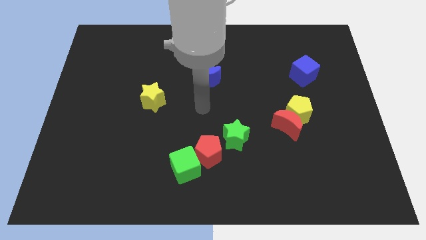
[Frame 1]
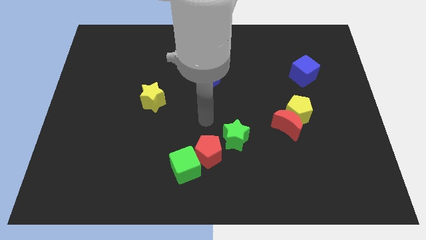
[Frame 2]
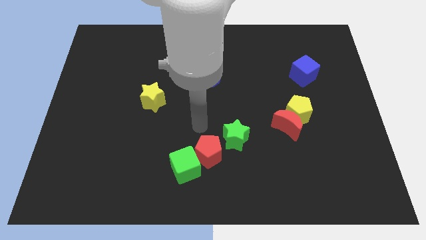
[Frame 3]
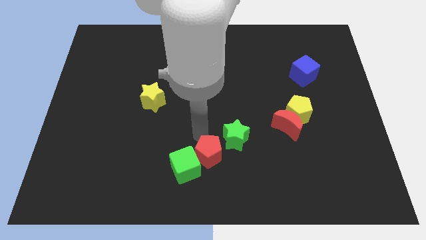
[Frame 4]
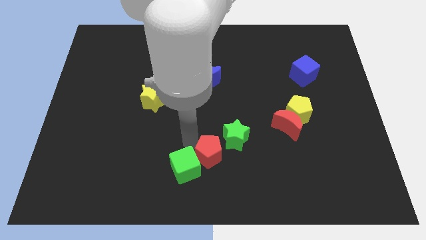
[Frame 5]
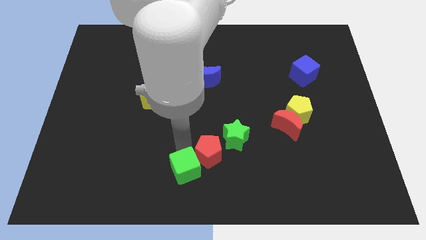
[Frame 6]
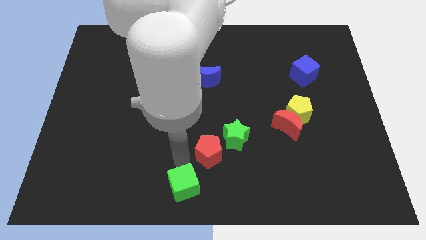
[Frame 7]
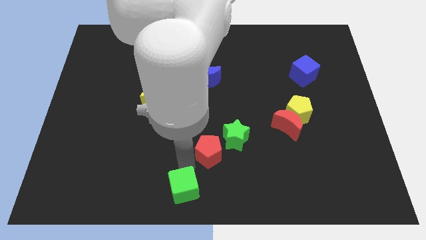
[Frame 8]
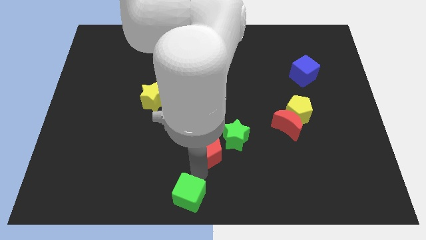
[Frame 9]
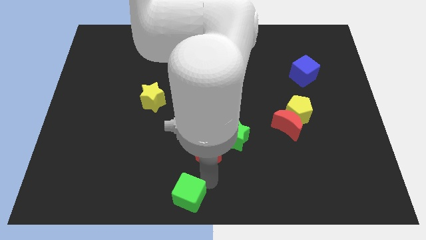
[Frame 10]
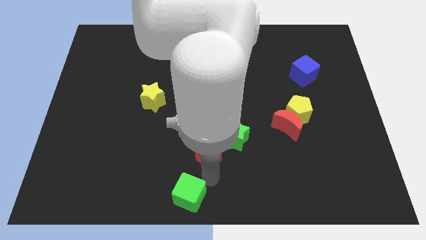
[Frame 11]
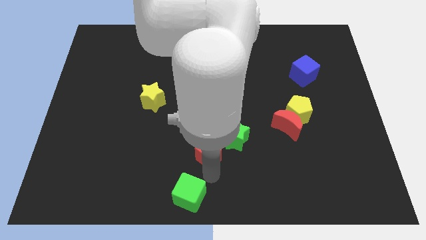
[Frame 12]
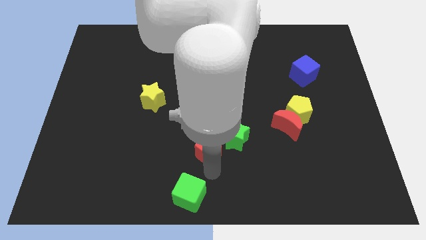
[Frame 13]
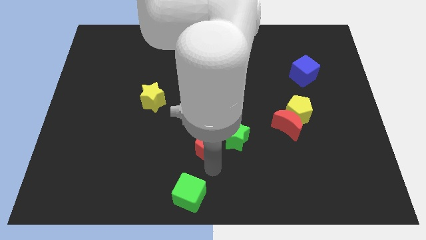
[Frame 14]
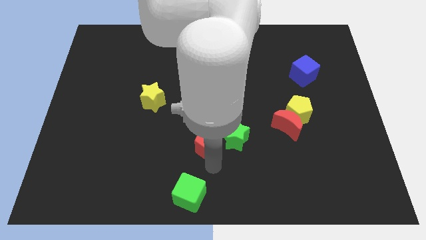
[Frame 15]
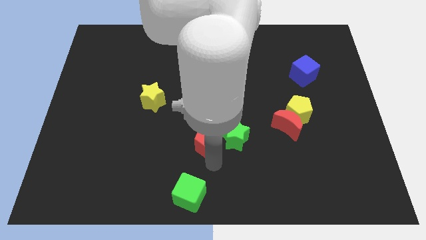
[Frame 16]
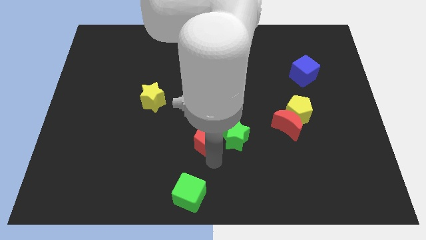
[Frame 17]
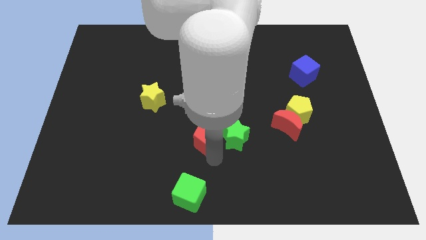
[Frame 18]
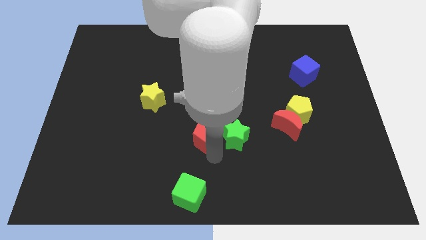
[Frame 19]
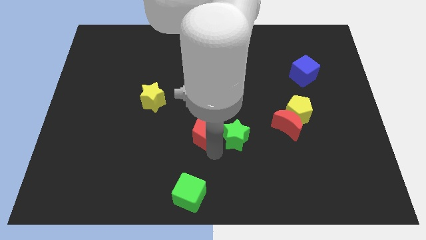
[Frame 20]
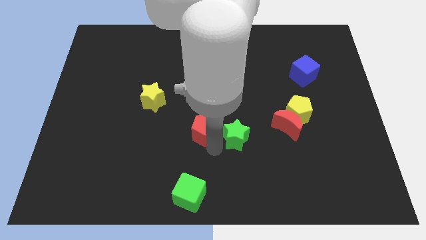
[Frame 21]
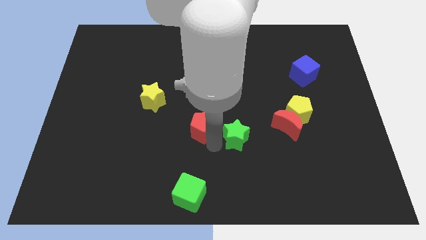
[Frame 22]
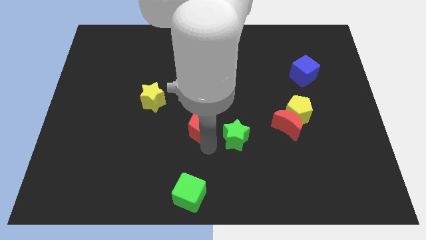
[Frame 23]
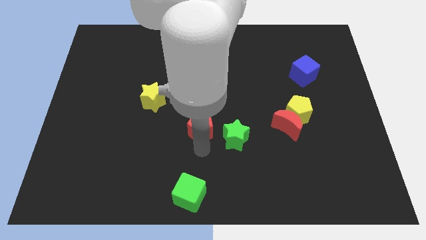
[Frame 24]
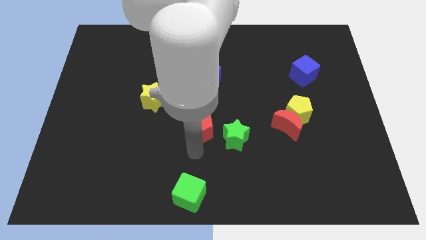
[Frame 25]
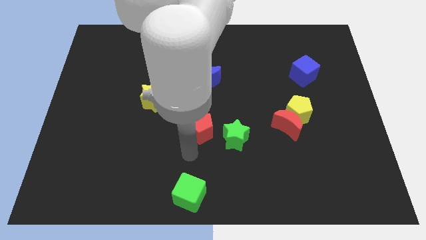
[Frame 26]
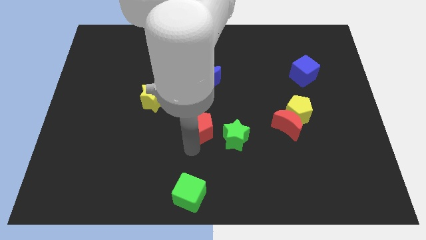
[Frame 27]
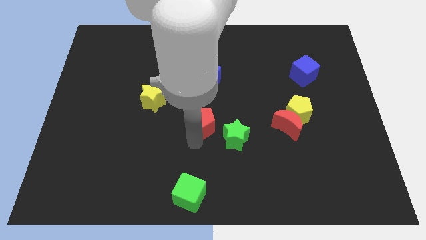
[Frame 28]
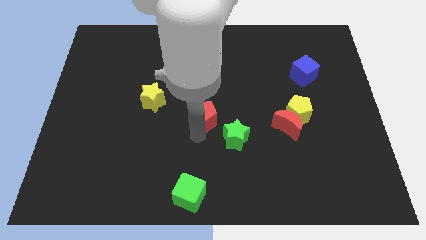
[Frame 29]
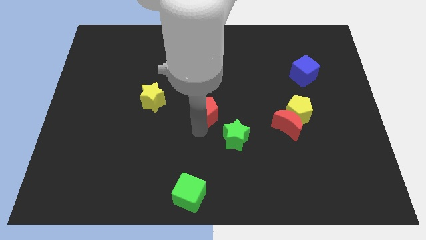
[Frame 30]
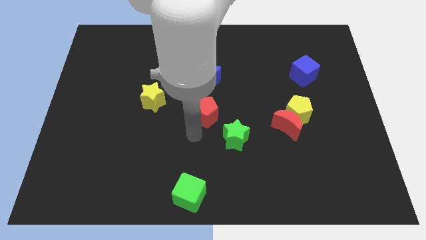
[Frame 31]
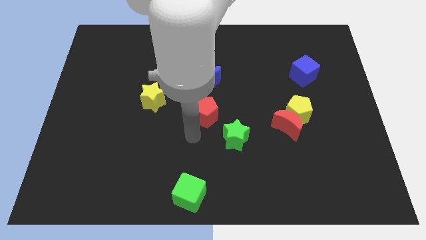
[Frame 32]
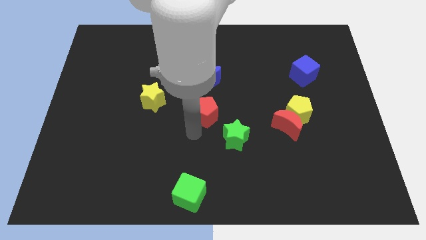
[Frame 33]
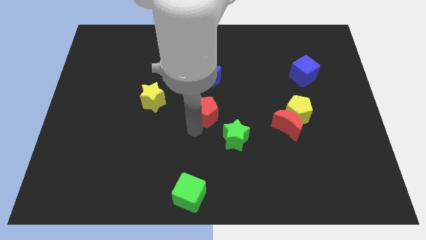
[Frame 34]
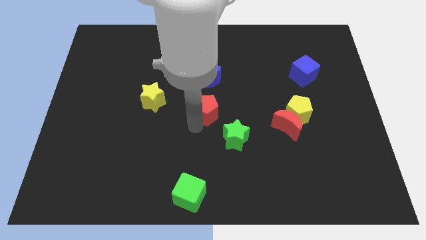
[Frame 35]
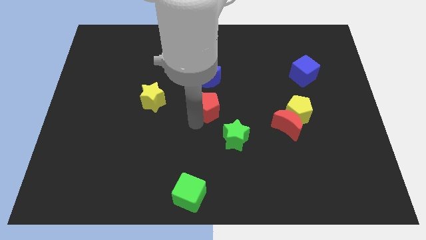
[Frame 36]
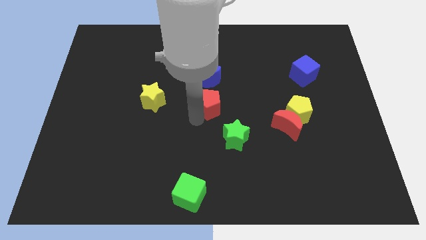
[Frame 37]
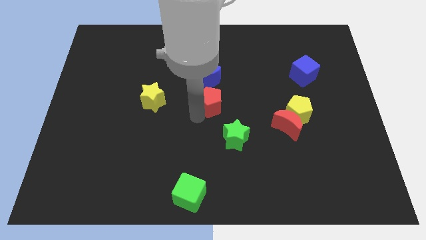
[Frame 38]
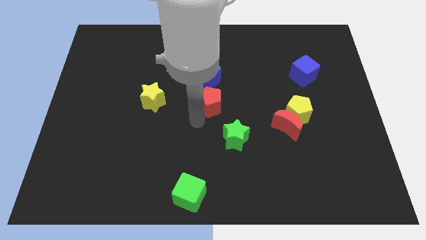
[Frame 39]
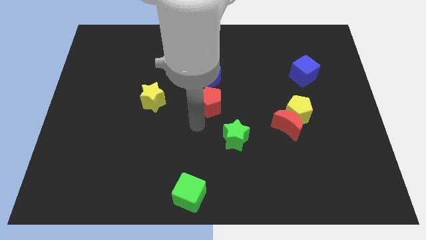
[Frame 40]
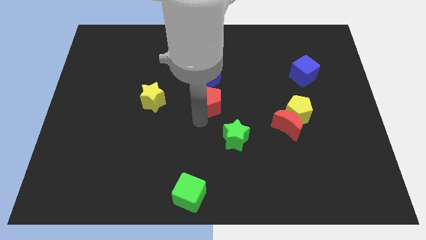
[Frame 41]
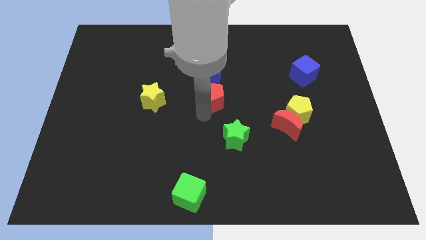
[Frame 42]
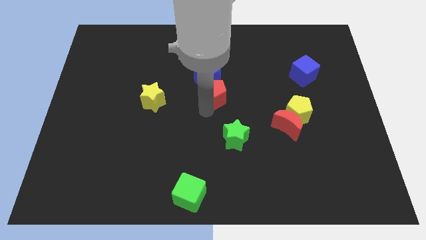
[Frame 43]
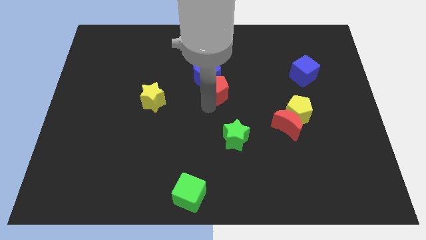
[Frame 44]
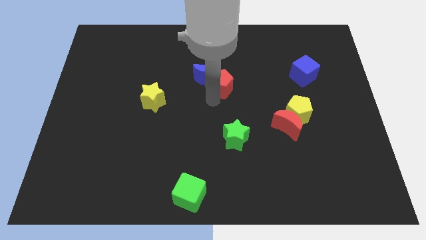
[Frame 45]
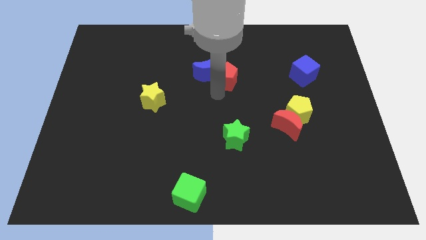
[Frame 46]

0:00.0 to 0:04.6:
slide the red pentagon diagonally up and to the right of the blue moon

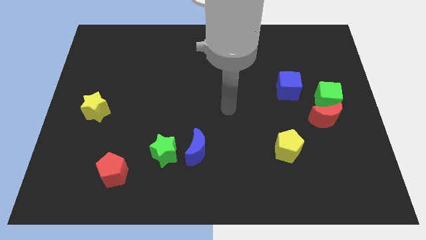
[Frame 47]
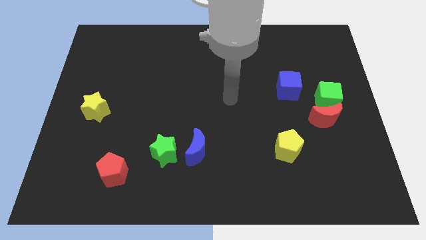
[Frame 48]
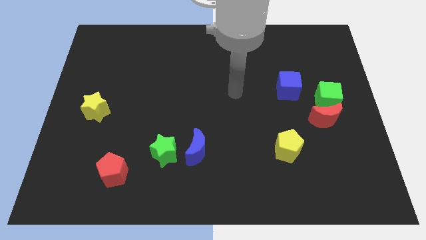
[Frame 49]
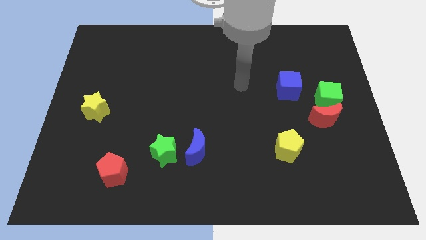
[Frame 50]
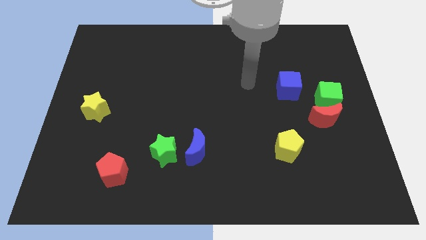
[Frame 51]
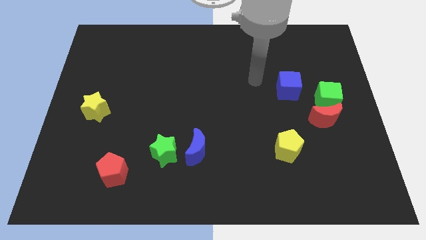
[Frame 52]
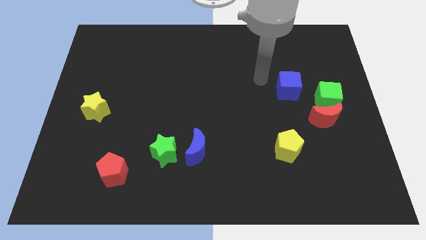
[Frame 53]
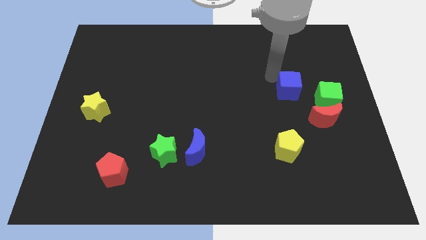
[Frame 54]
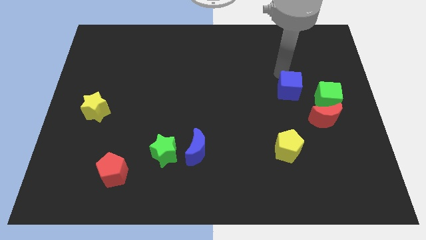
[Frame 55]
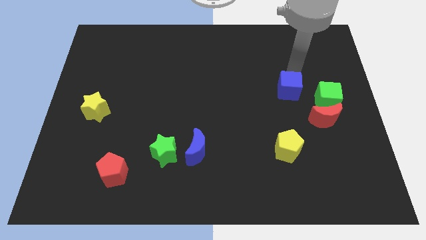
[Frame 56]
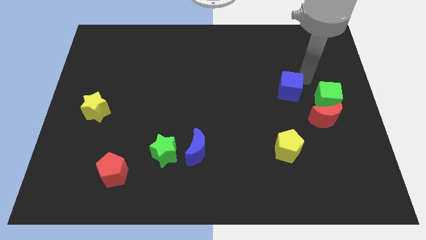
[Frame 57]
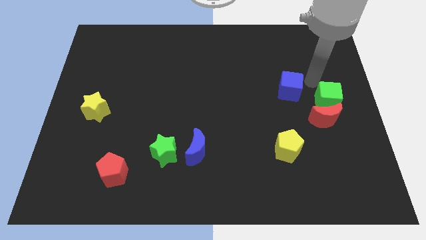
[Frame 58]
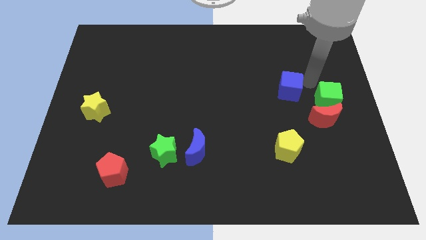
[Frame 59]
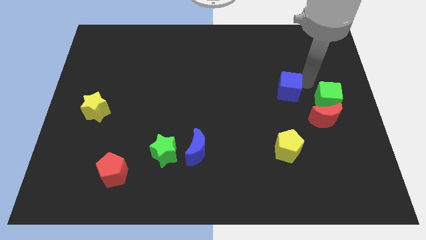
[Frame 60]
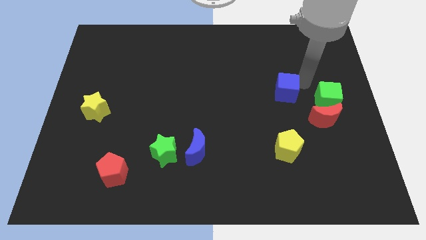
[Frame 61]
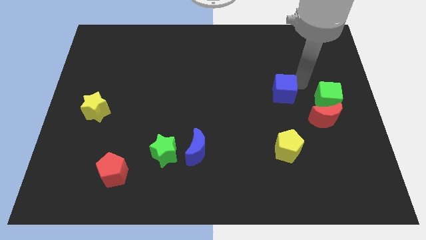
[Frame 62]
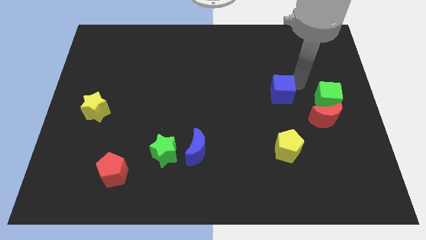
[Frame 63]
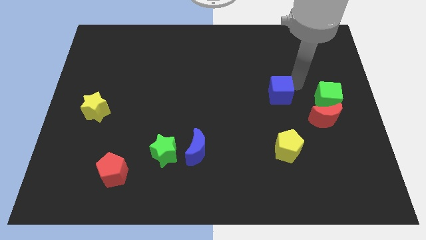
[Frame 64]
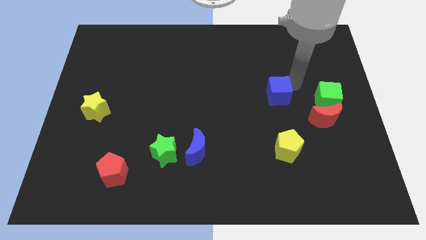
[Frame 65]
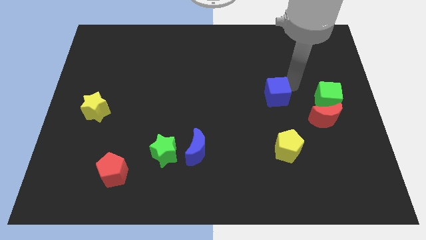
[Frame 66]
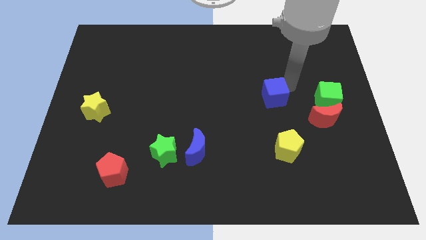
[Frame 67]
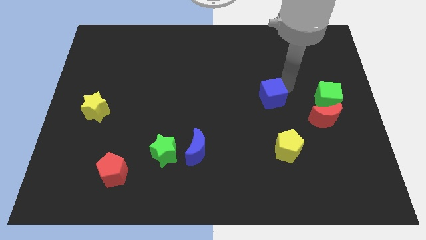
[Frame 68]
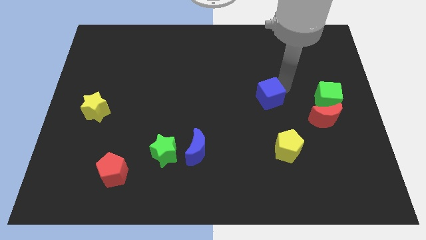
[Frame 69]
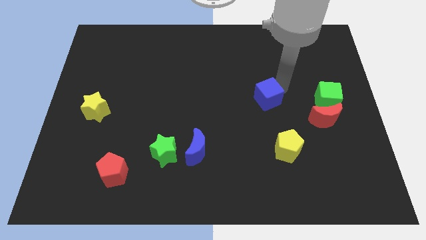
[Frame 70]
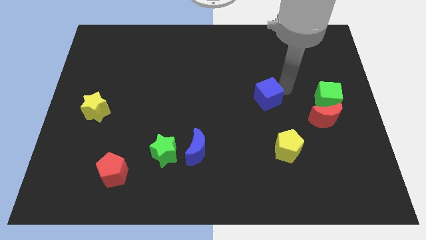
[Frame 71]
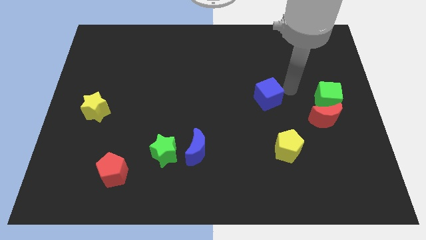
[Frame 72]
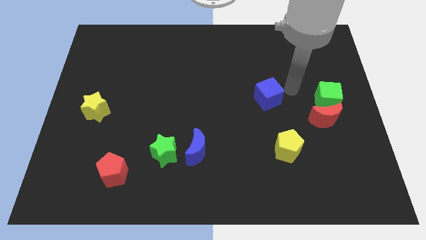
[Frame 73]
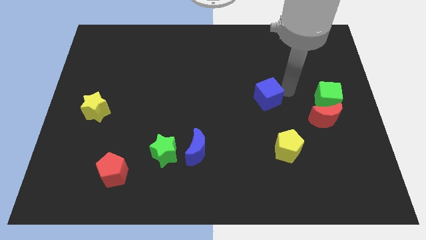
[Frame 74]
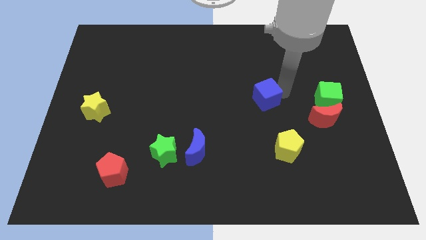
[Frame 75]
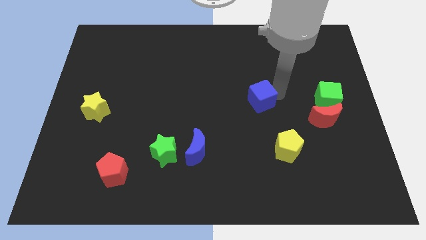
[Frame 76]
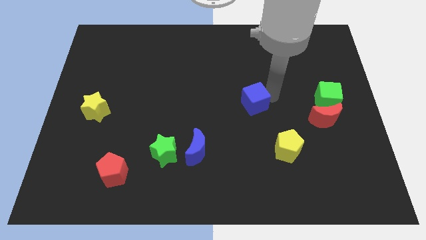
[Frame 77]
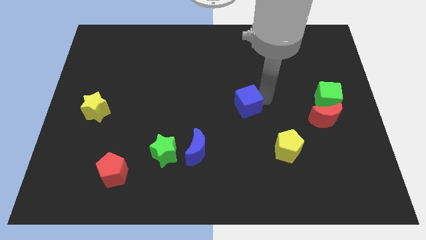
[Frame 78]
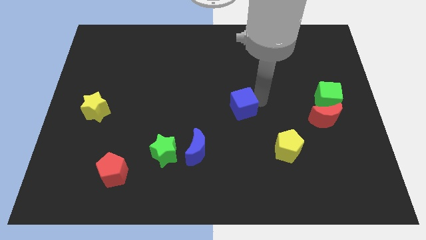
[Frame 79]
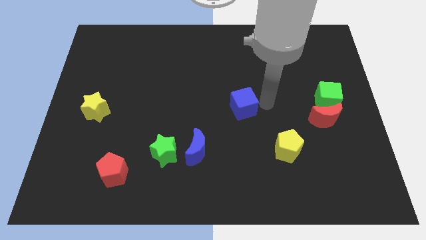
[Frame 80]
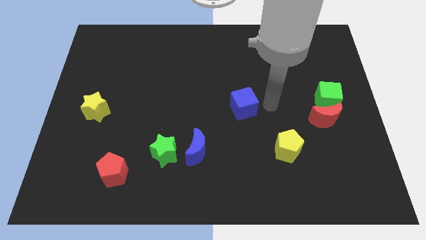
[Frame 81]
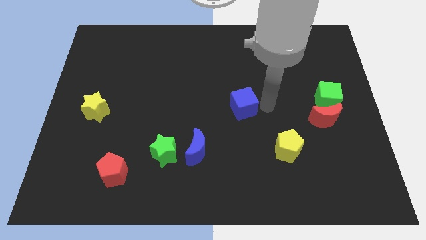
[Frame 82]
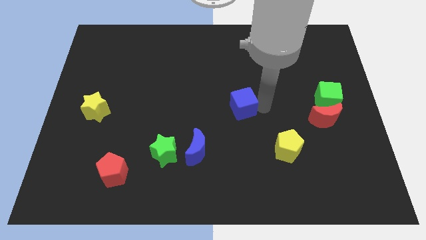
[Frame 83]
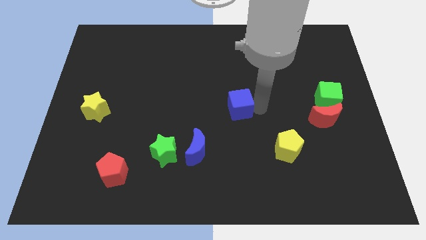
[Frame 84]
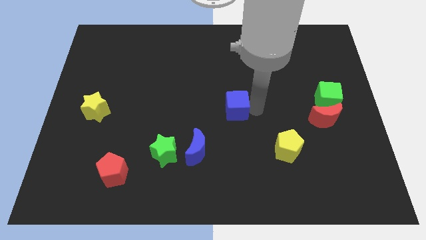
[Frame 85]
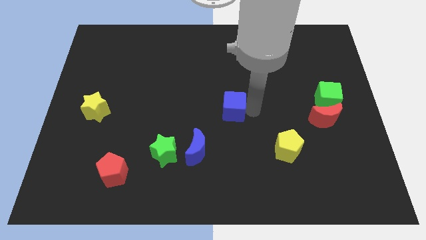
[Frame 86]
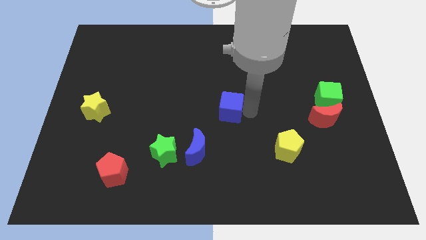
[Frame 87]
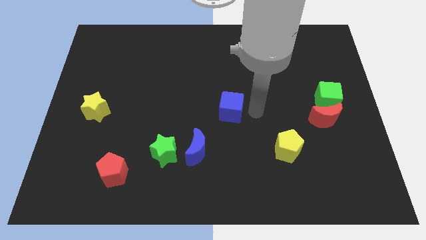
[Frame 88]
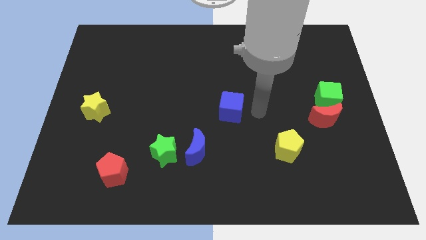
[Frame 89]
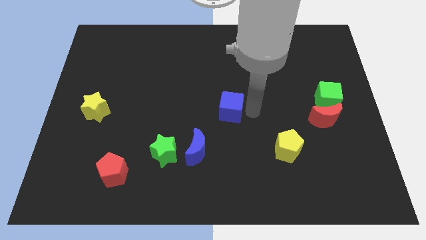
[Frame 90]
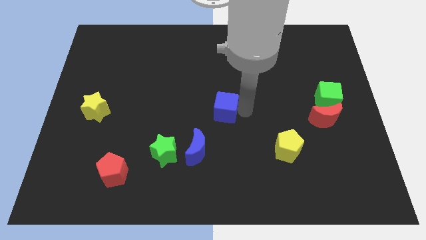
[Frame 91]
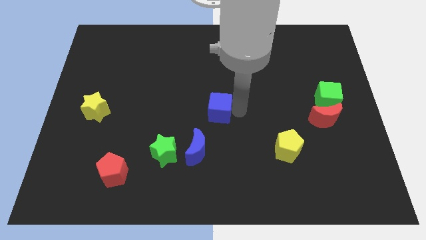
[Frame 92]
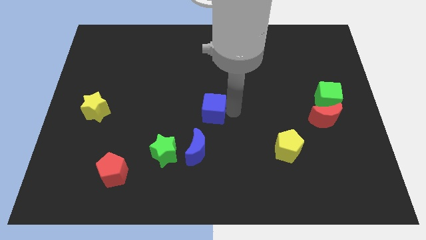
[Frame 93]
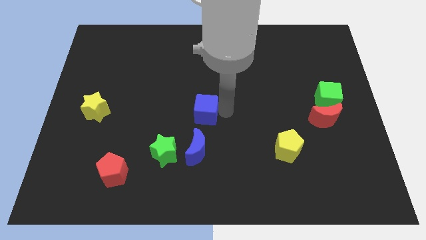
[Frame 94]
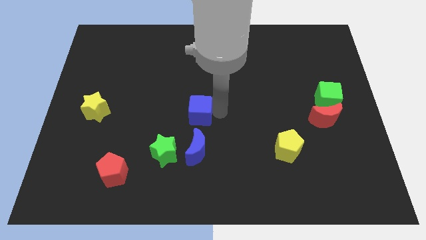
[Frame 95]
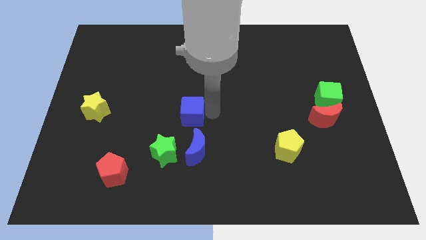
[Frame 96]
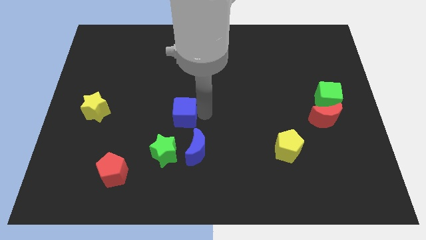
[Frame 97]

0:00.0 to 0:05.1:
push the blue cube to the top side of the green star
